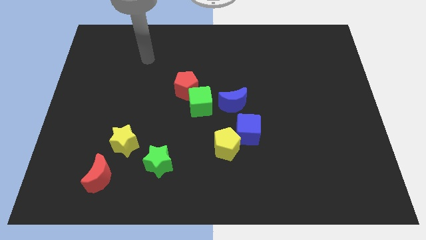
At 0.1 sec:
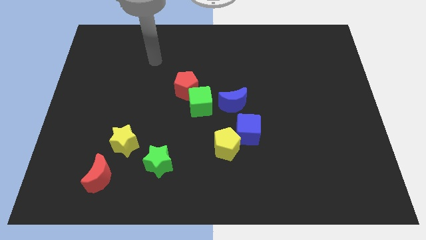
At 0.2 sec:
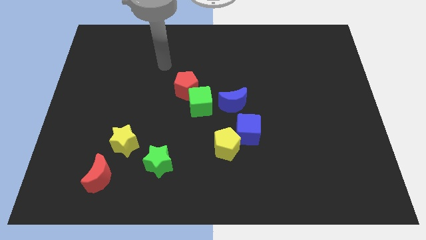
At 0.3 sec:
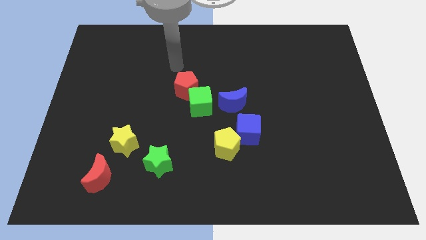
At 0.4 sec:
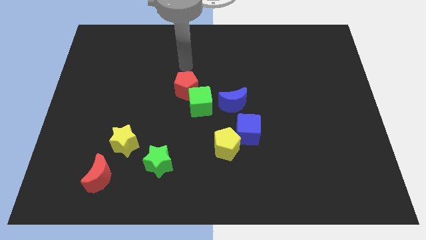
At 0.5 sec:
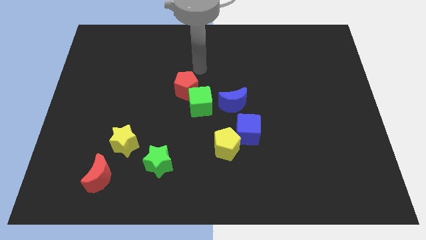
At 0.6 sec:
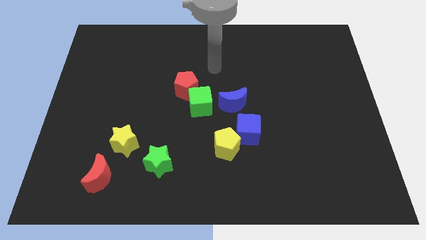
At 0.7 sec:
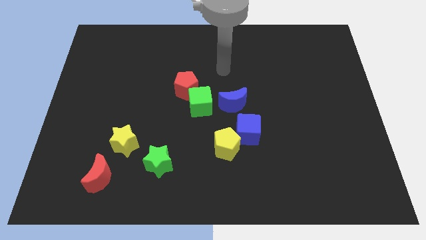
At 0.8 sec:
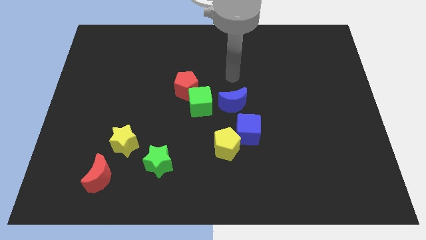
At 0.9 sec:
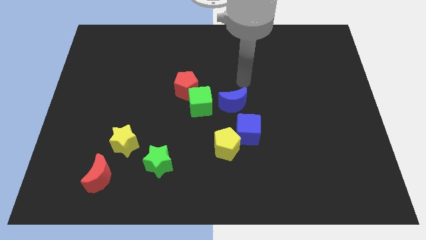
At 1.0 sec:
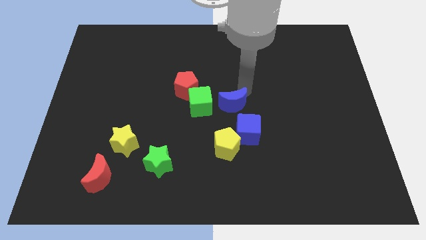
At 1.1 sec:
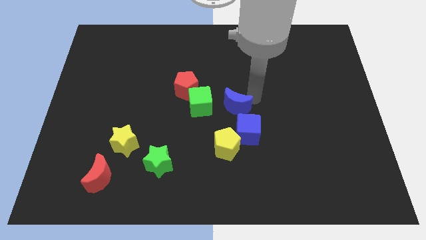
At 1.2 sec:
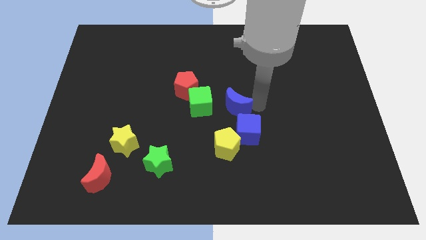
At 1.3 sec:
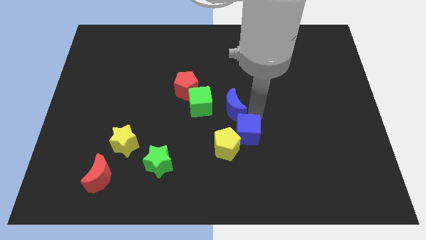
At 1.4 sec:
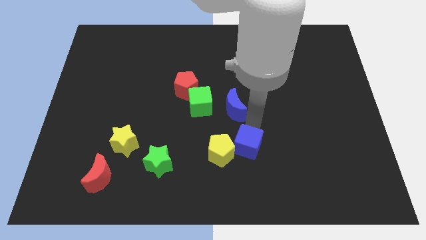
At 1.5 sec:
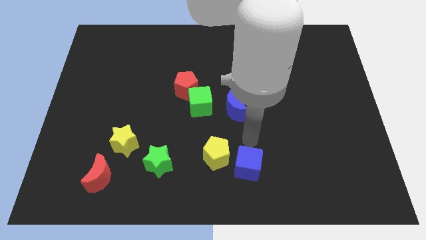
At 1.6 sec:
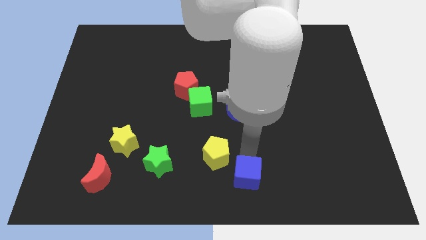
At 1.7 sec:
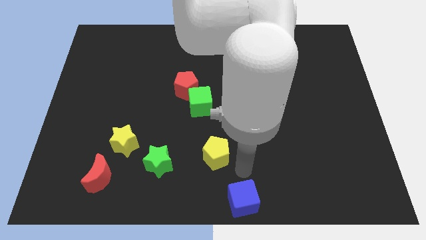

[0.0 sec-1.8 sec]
separate the yellow pentagon from the blue cube

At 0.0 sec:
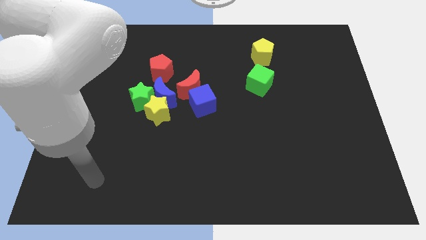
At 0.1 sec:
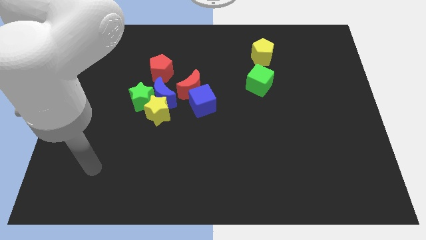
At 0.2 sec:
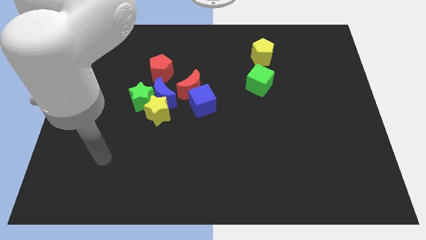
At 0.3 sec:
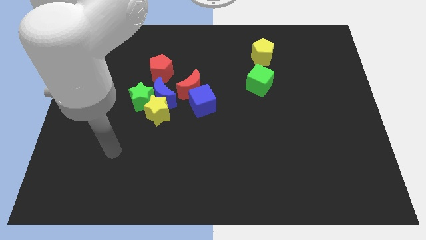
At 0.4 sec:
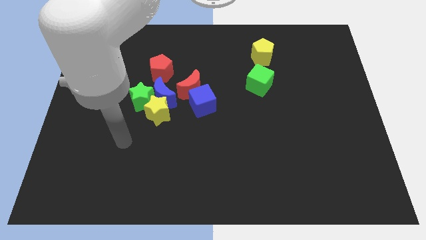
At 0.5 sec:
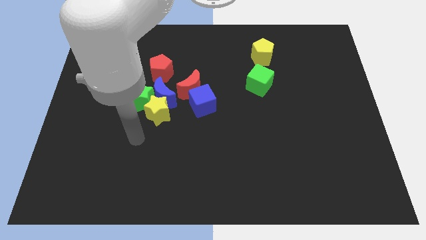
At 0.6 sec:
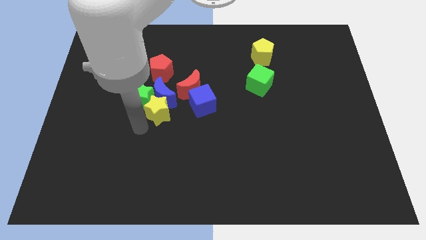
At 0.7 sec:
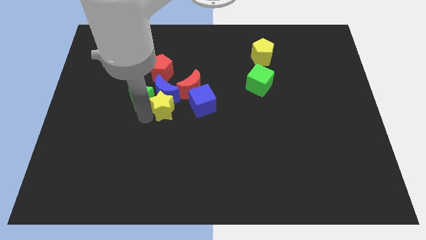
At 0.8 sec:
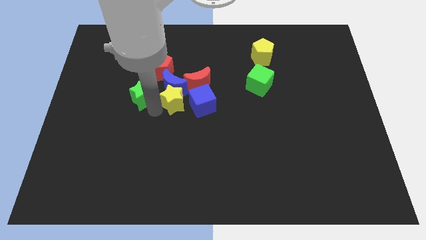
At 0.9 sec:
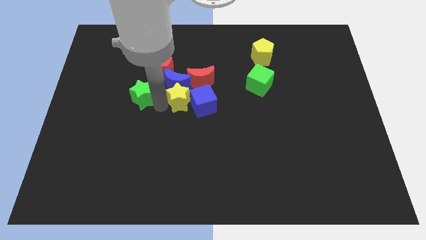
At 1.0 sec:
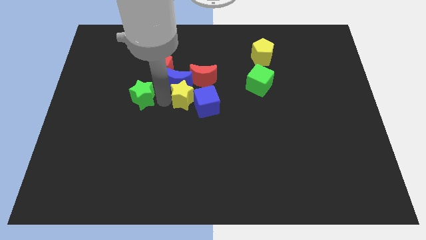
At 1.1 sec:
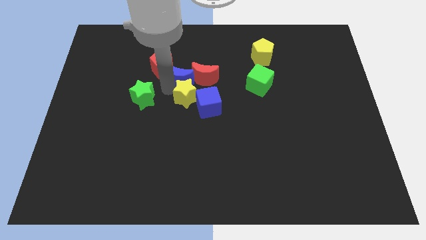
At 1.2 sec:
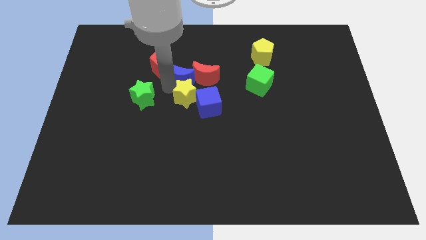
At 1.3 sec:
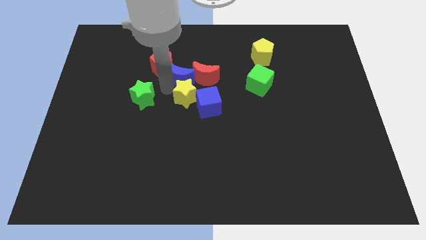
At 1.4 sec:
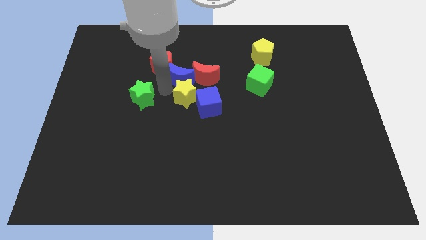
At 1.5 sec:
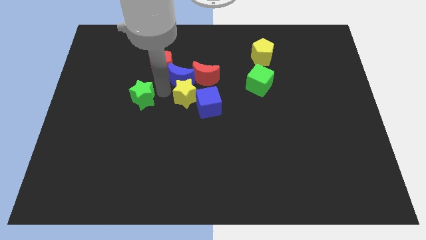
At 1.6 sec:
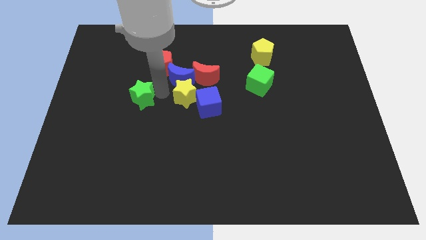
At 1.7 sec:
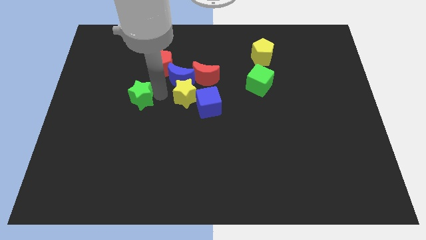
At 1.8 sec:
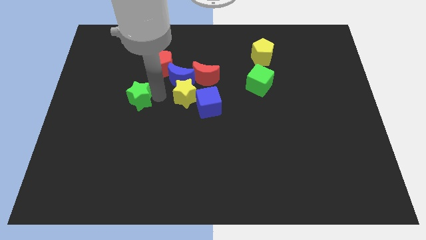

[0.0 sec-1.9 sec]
separate the green star from the blue moon, yellow star, and red pentagon

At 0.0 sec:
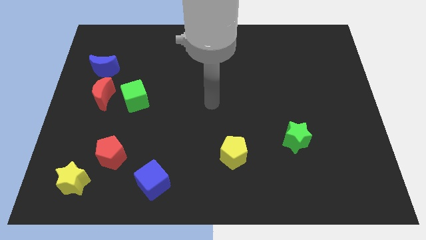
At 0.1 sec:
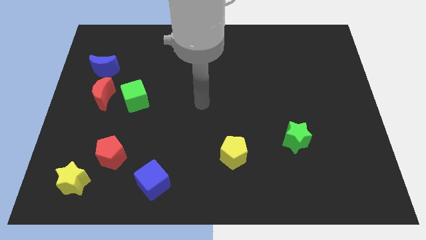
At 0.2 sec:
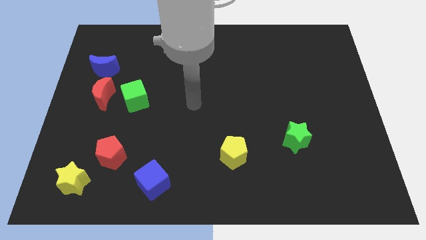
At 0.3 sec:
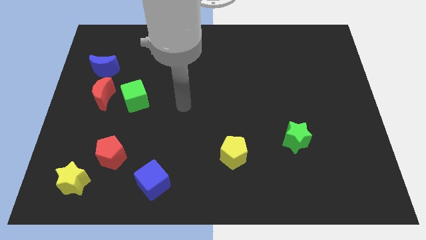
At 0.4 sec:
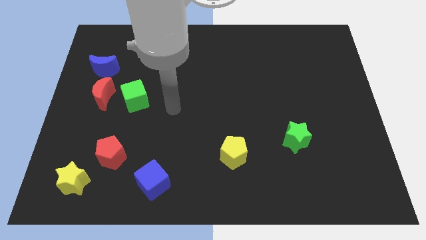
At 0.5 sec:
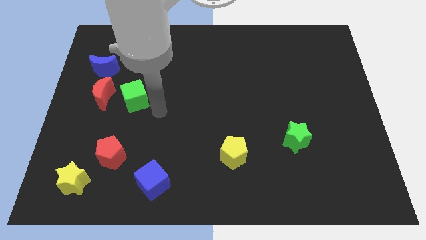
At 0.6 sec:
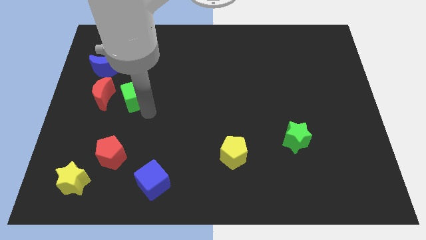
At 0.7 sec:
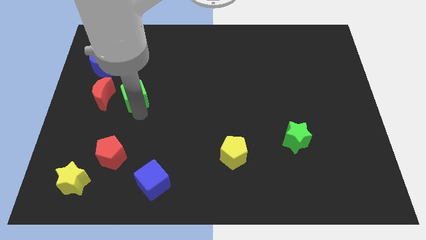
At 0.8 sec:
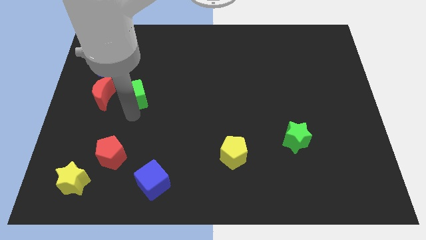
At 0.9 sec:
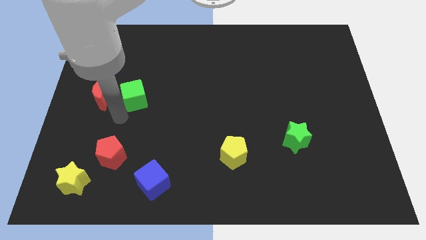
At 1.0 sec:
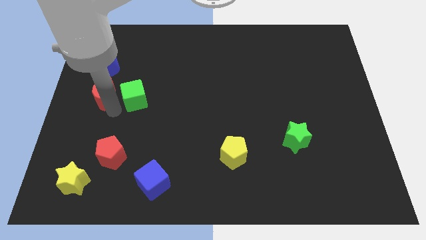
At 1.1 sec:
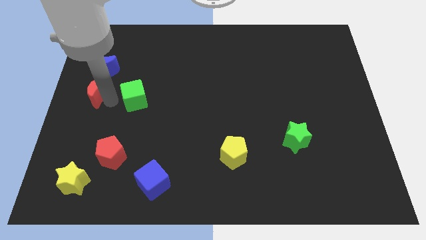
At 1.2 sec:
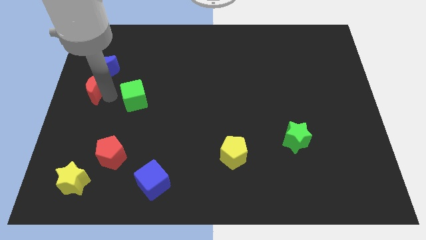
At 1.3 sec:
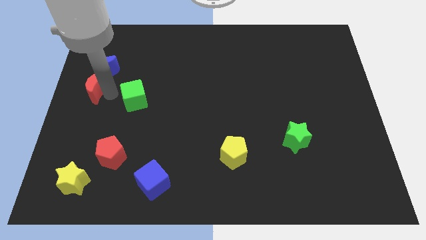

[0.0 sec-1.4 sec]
separate the green cube from the red moon

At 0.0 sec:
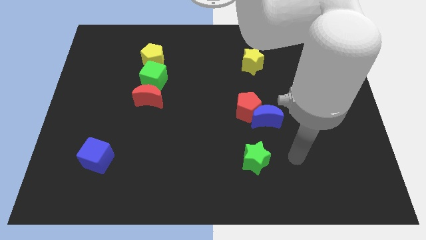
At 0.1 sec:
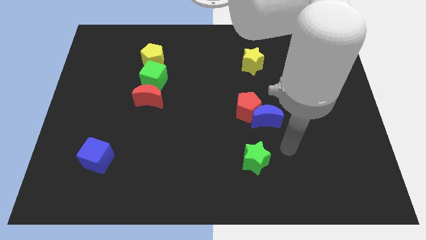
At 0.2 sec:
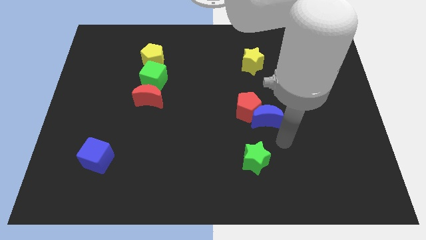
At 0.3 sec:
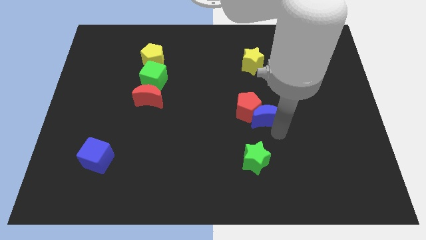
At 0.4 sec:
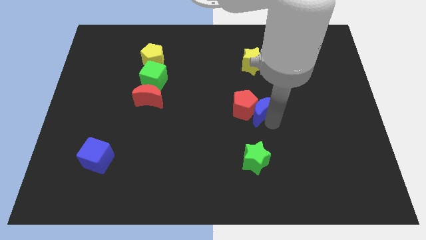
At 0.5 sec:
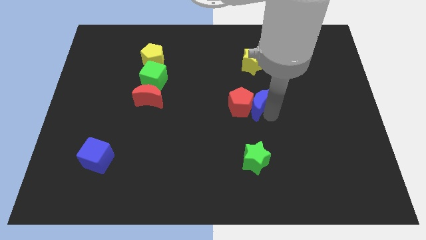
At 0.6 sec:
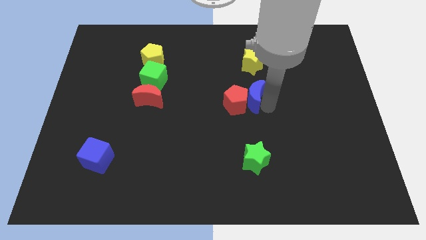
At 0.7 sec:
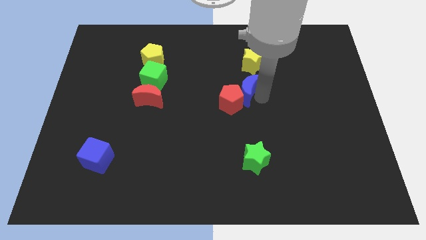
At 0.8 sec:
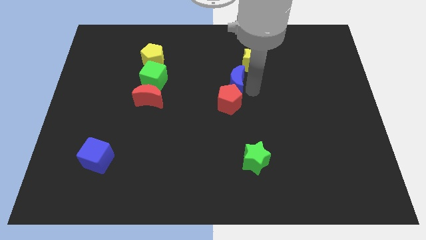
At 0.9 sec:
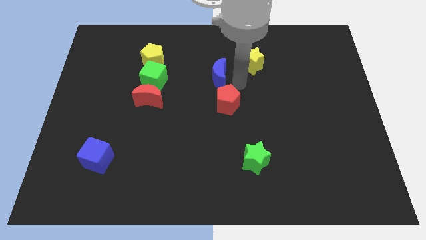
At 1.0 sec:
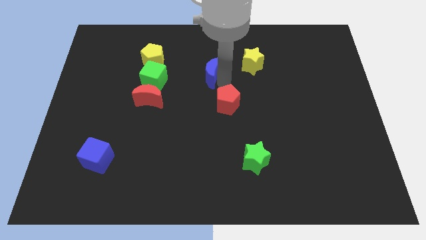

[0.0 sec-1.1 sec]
pull the red pentagon apart from the blue moon

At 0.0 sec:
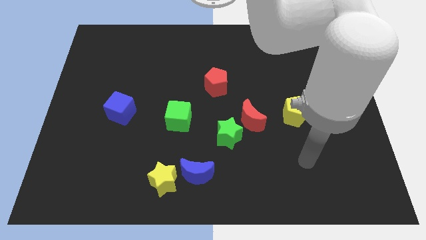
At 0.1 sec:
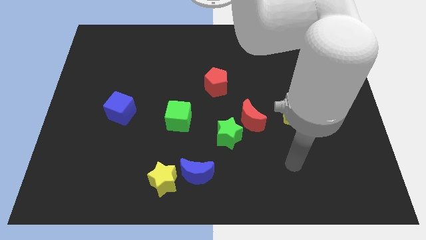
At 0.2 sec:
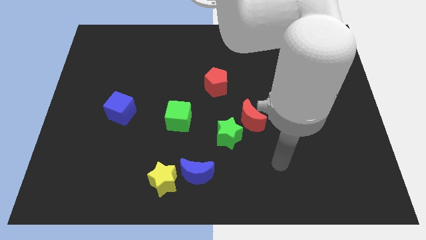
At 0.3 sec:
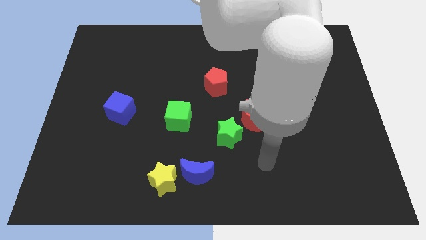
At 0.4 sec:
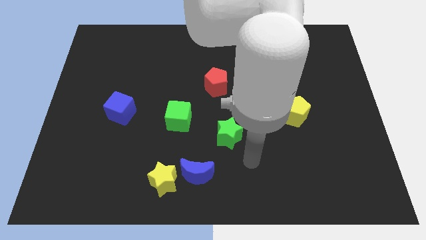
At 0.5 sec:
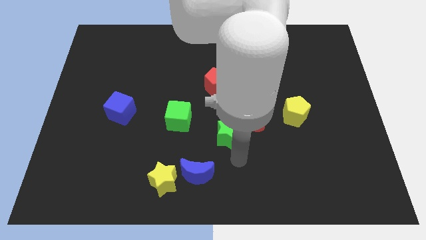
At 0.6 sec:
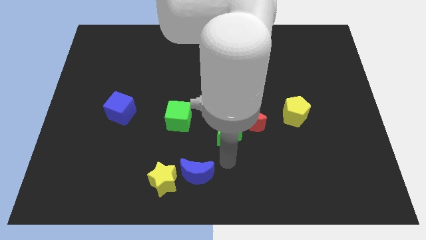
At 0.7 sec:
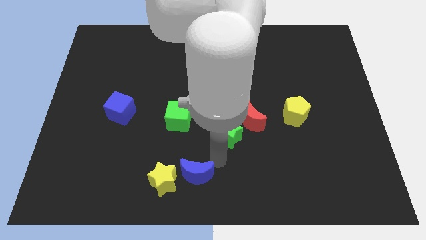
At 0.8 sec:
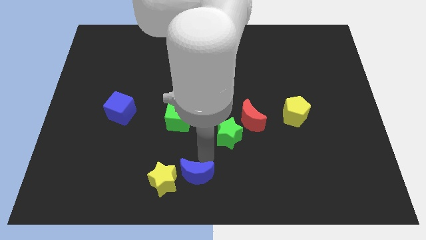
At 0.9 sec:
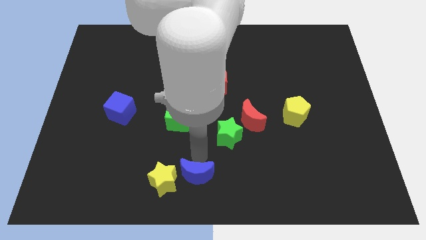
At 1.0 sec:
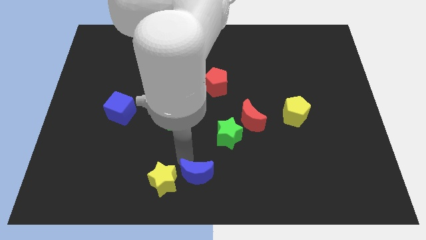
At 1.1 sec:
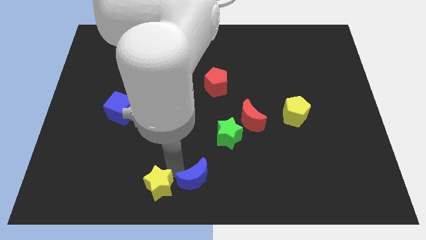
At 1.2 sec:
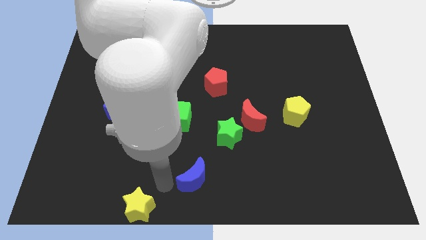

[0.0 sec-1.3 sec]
separate the blue moon from the yellow star

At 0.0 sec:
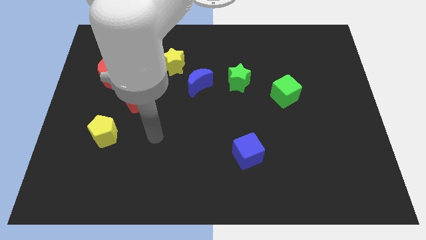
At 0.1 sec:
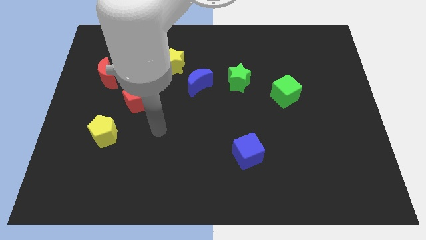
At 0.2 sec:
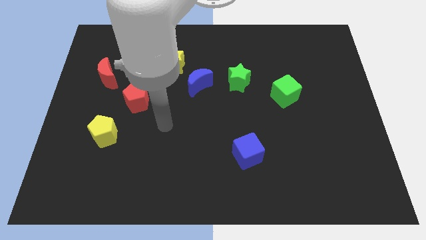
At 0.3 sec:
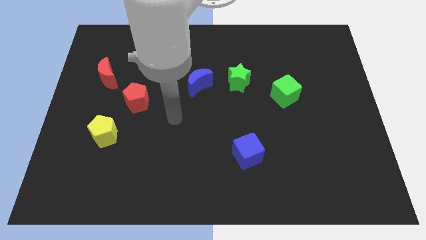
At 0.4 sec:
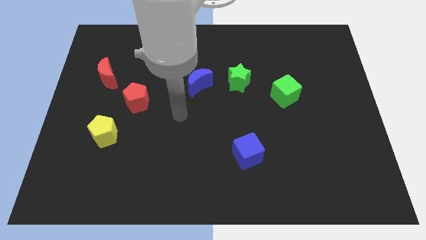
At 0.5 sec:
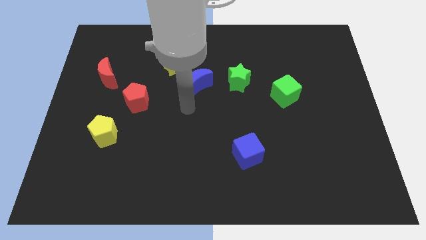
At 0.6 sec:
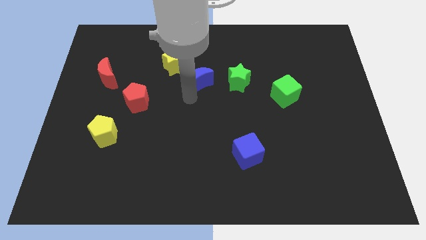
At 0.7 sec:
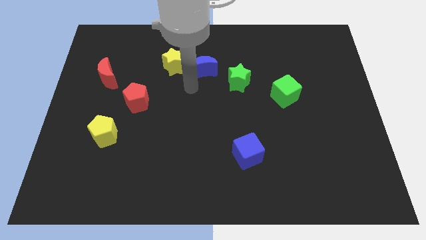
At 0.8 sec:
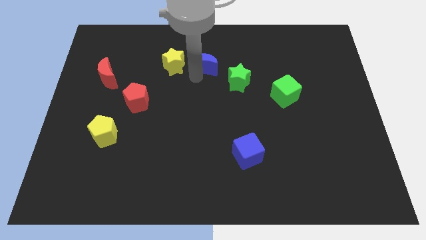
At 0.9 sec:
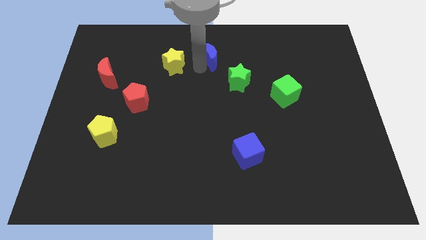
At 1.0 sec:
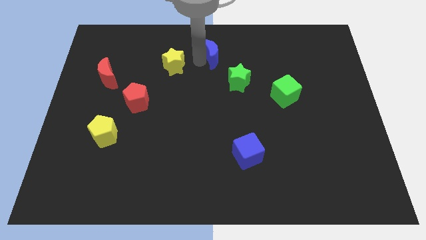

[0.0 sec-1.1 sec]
move the yellow star away from the blue moon

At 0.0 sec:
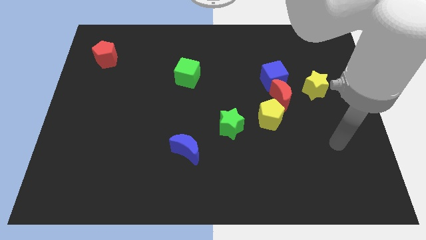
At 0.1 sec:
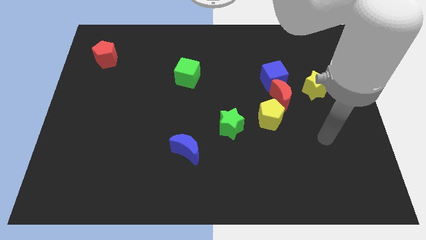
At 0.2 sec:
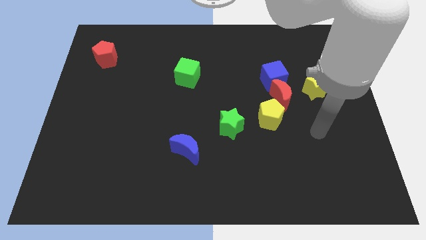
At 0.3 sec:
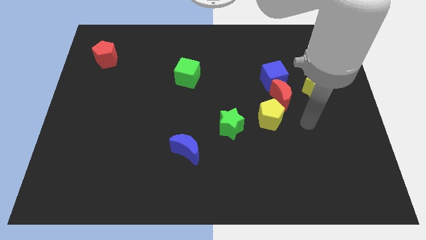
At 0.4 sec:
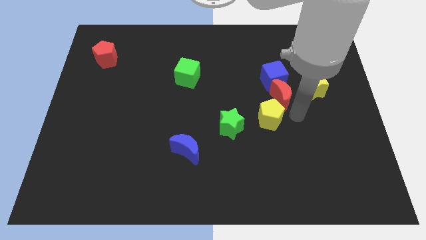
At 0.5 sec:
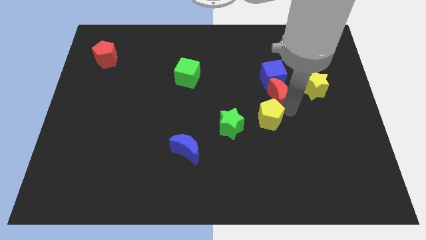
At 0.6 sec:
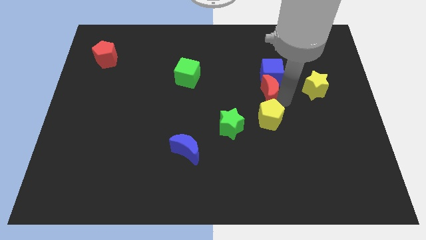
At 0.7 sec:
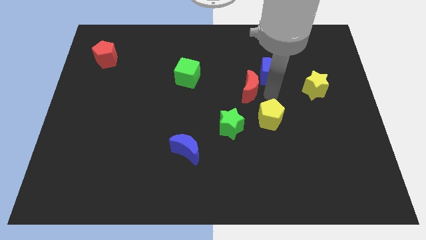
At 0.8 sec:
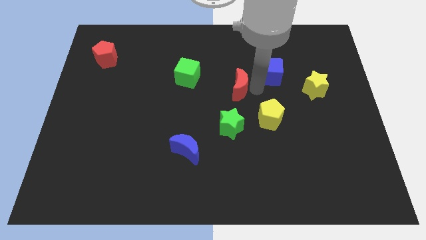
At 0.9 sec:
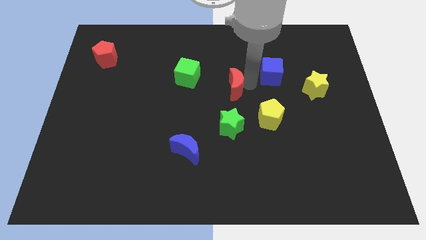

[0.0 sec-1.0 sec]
move the blue cube away from the red moon
